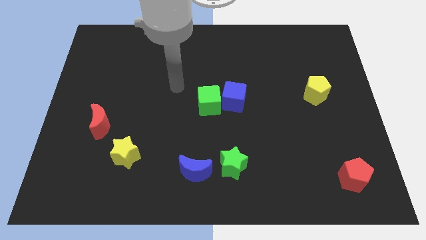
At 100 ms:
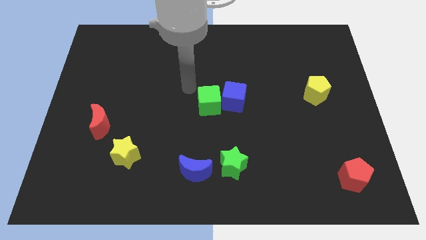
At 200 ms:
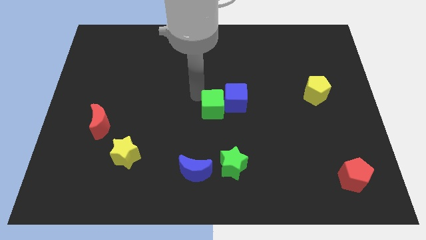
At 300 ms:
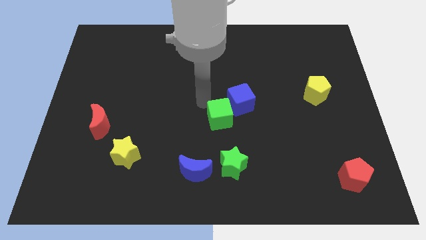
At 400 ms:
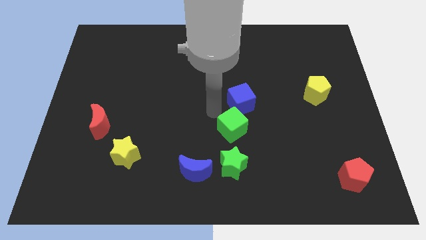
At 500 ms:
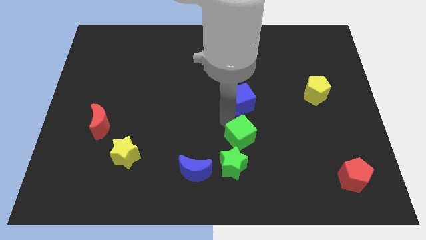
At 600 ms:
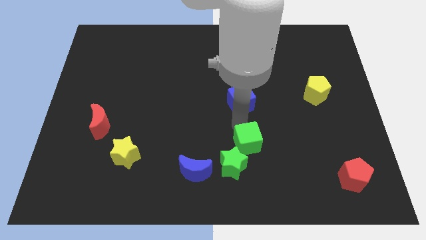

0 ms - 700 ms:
separate the blue cube from the green cube

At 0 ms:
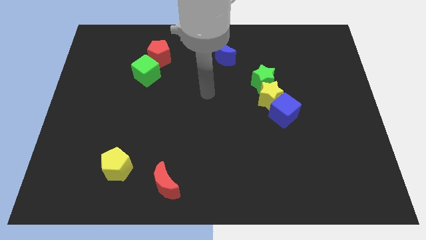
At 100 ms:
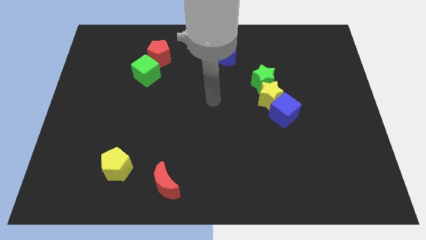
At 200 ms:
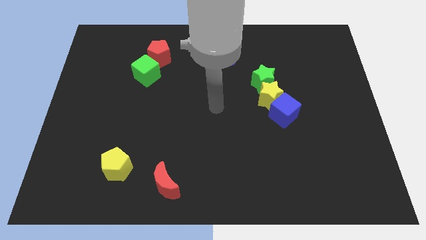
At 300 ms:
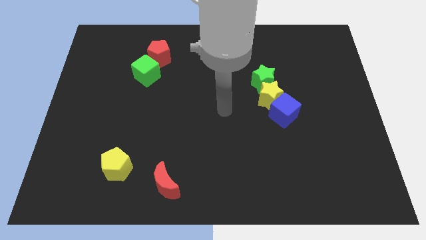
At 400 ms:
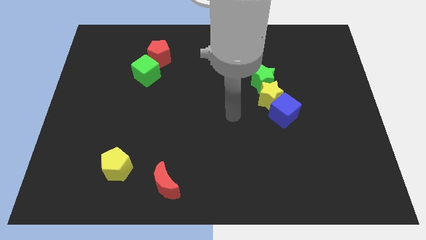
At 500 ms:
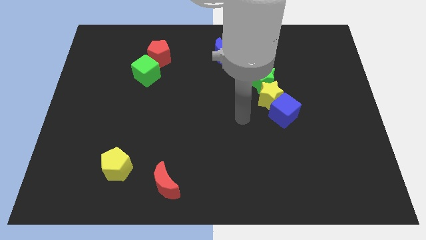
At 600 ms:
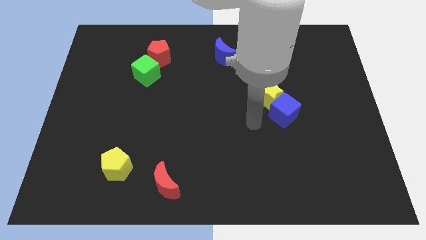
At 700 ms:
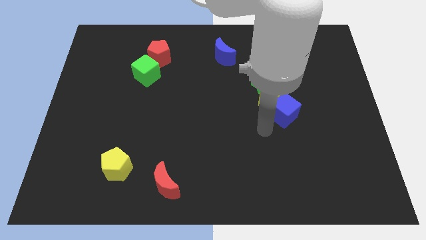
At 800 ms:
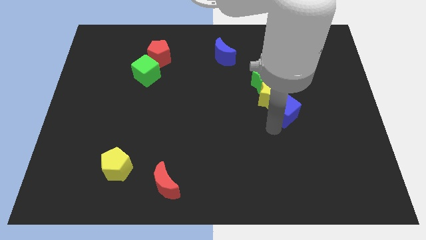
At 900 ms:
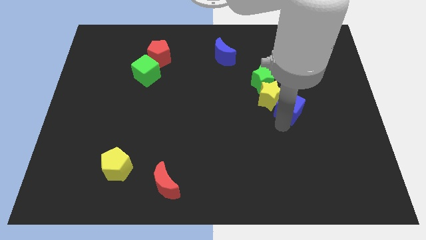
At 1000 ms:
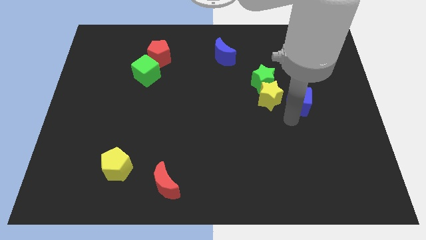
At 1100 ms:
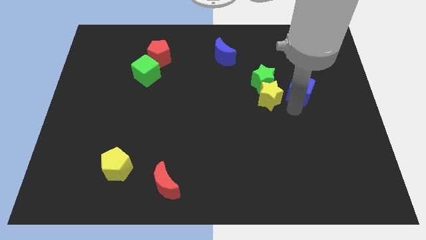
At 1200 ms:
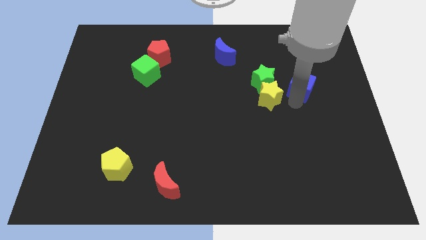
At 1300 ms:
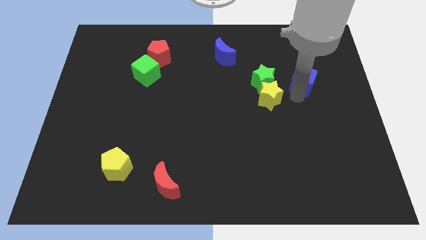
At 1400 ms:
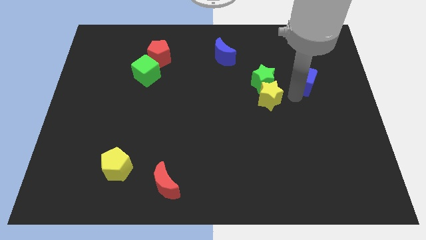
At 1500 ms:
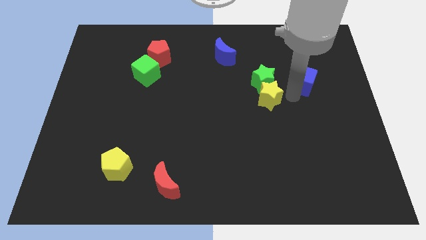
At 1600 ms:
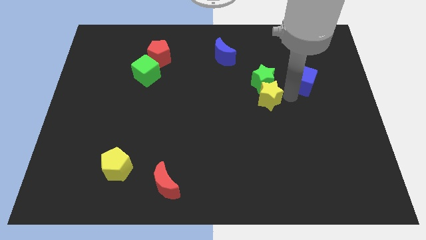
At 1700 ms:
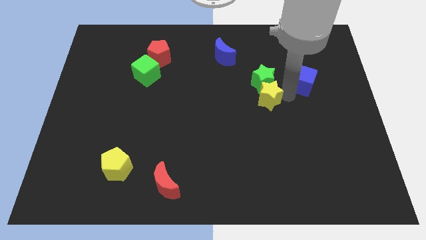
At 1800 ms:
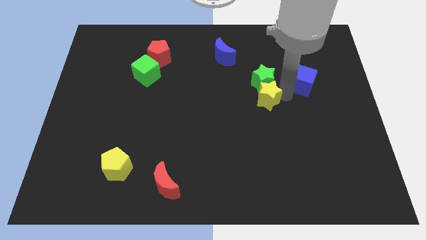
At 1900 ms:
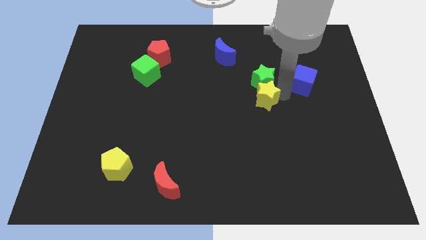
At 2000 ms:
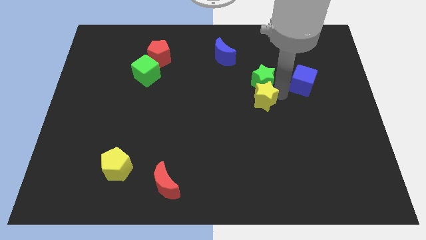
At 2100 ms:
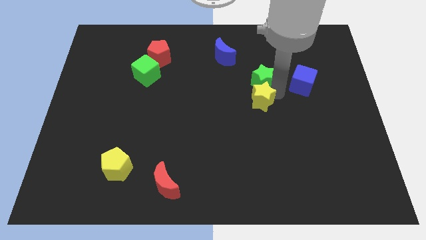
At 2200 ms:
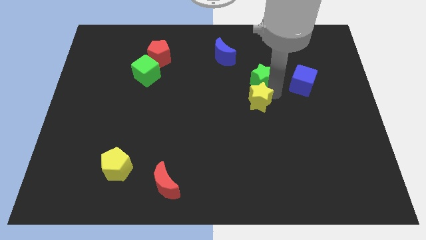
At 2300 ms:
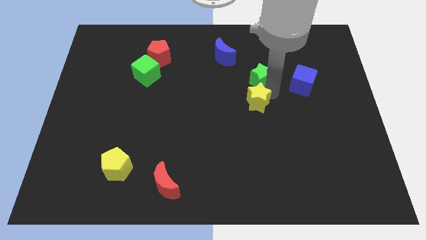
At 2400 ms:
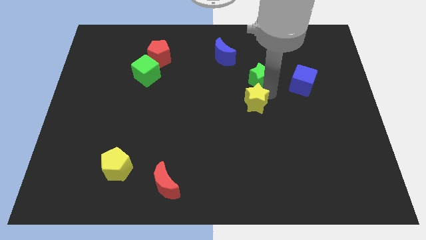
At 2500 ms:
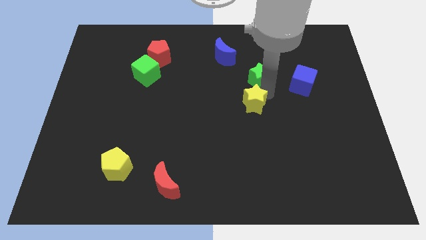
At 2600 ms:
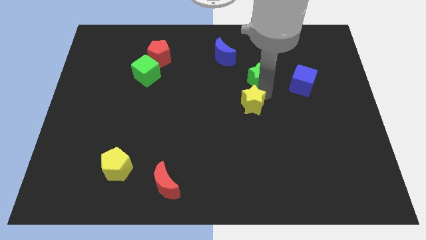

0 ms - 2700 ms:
pull the yellow star apart from the blue cube and green star

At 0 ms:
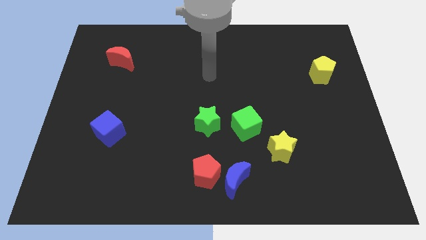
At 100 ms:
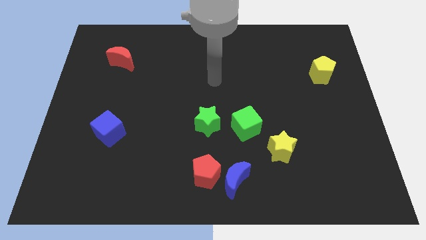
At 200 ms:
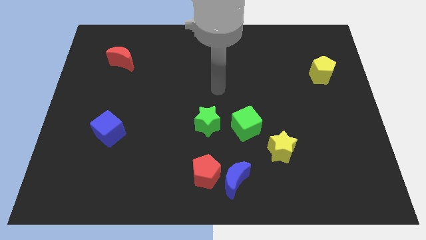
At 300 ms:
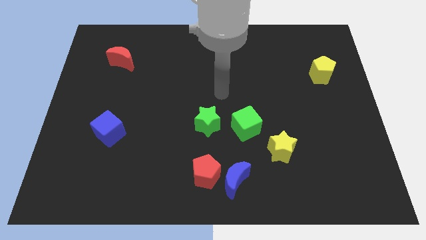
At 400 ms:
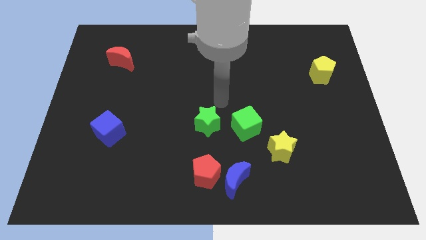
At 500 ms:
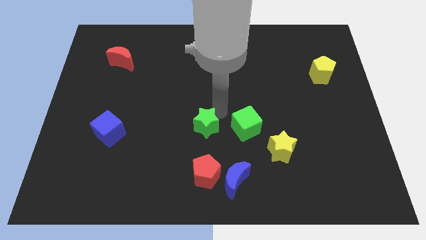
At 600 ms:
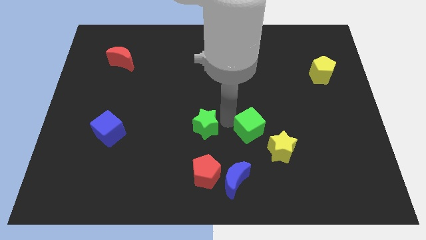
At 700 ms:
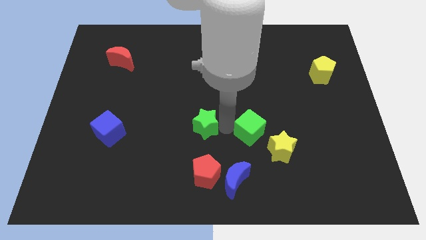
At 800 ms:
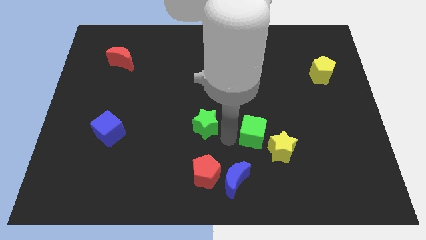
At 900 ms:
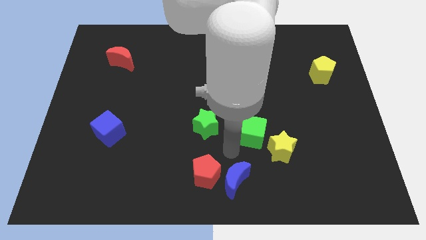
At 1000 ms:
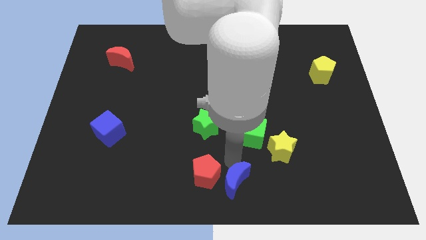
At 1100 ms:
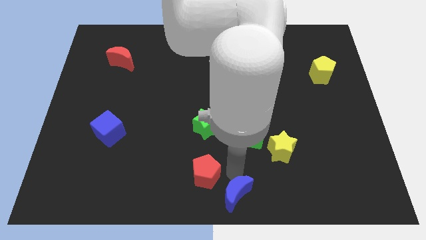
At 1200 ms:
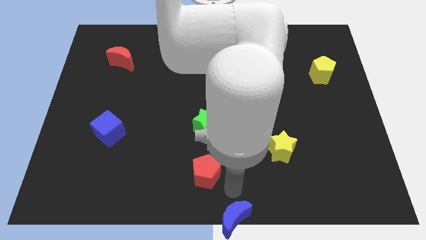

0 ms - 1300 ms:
pull the red pentagon apart from the blue moon

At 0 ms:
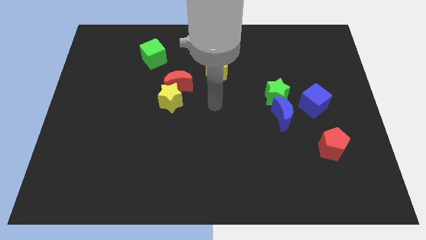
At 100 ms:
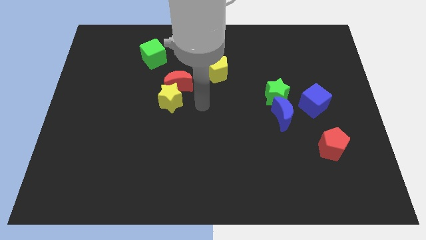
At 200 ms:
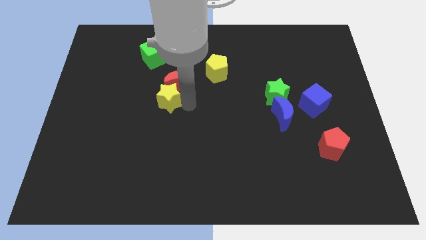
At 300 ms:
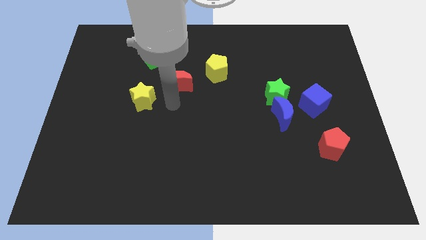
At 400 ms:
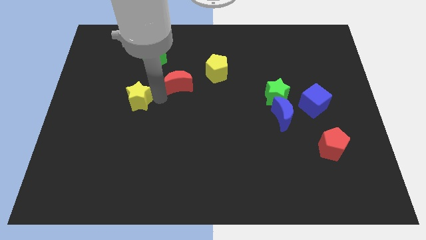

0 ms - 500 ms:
separate the red moon from the yellow star

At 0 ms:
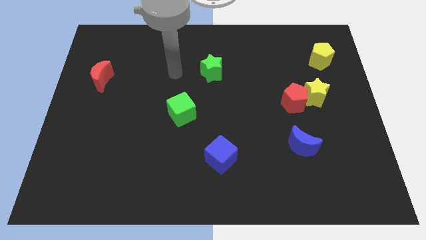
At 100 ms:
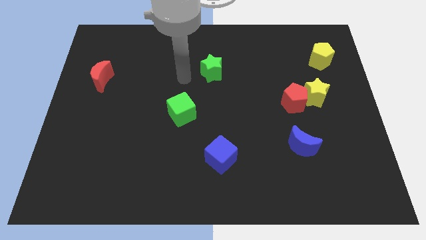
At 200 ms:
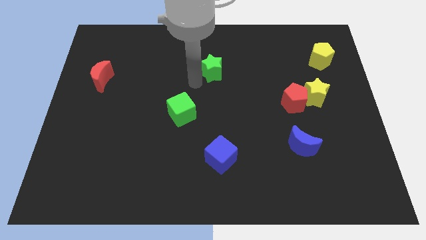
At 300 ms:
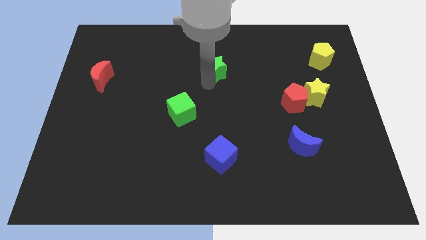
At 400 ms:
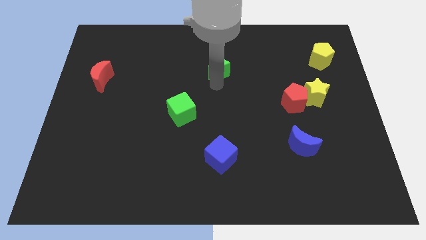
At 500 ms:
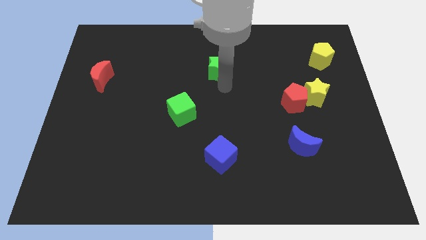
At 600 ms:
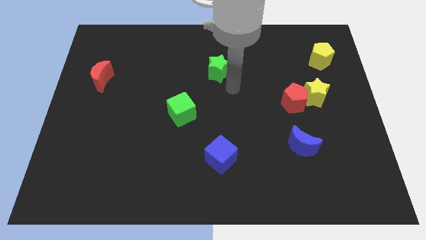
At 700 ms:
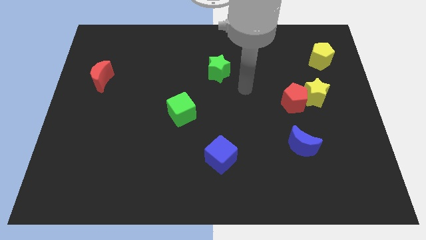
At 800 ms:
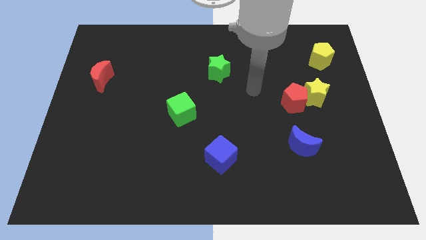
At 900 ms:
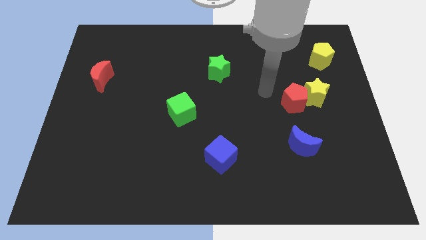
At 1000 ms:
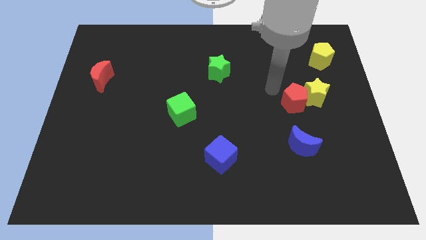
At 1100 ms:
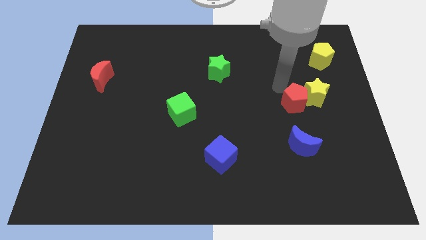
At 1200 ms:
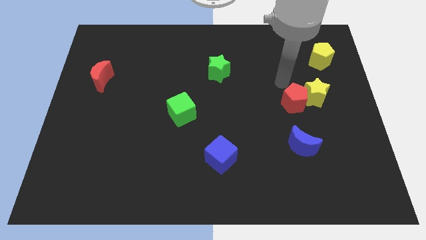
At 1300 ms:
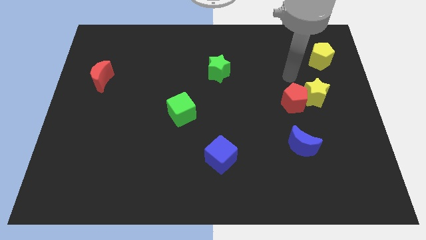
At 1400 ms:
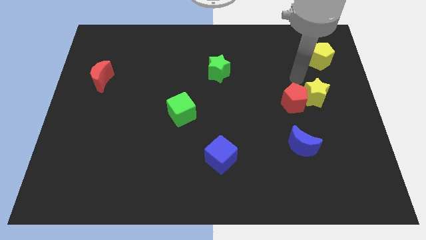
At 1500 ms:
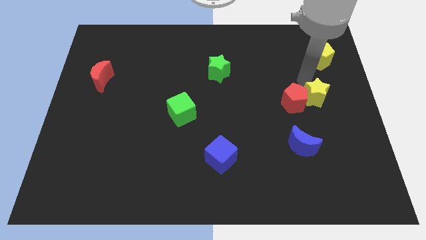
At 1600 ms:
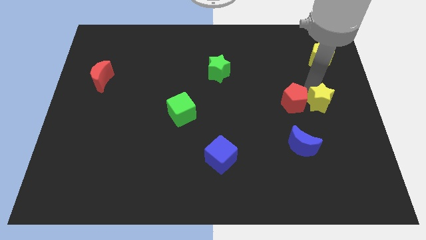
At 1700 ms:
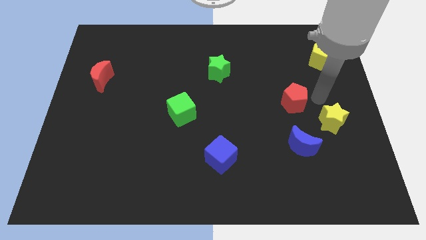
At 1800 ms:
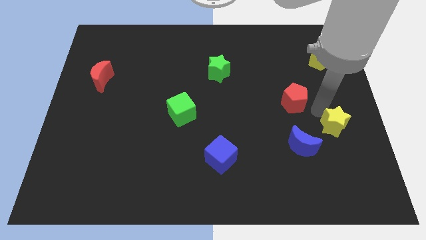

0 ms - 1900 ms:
pull the red pentagon apart from the yellow star

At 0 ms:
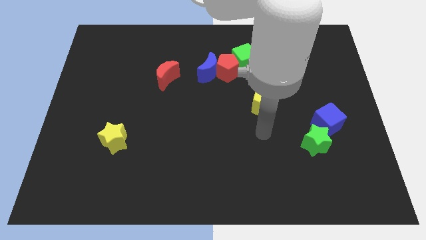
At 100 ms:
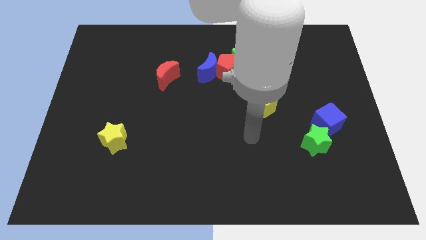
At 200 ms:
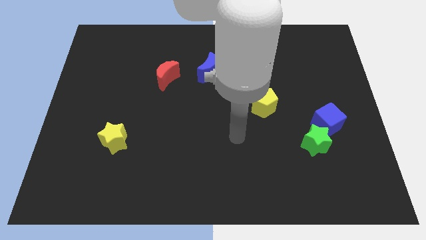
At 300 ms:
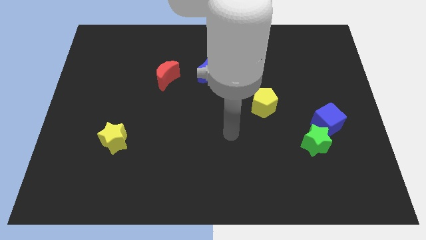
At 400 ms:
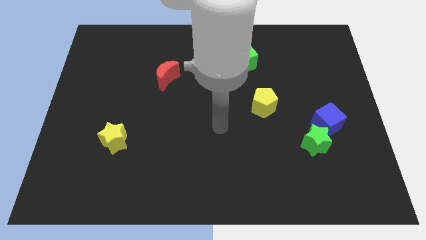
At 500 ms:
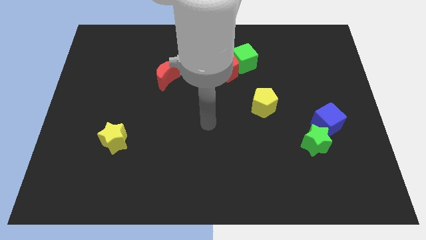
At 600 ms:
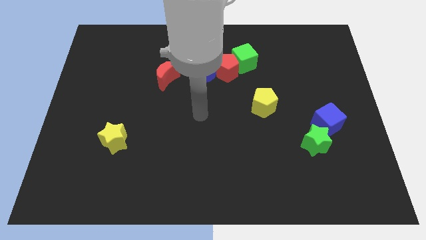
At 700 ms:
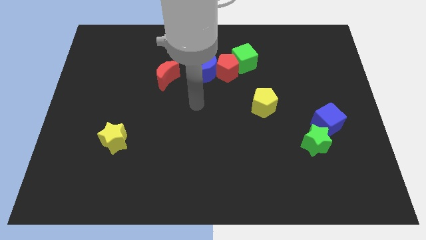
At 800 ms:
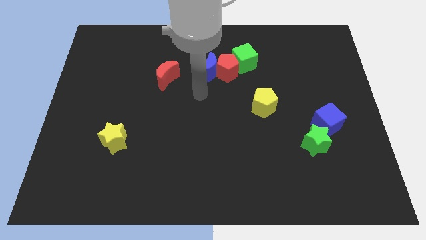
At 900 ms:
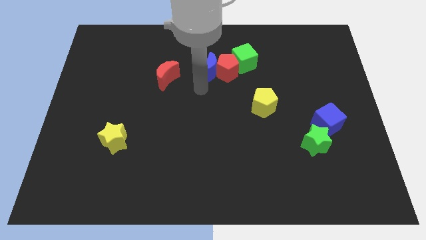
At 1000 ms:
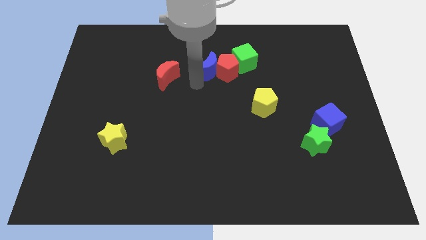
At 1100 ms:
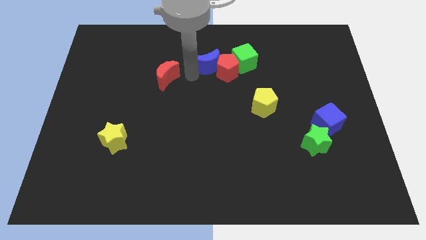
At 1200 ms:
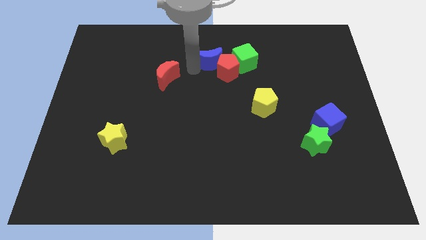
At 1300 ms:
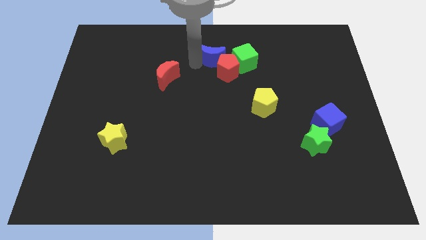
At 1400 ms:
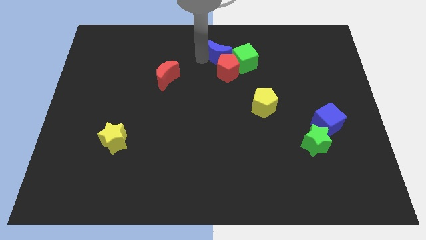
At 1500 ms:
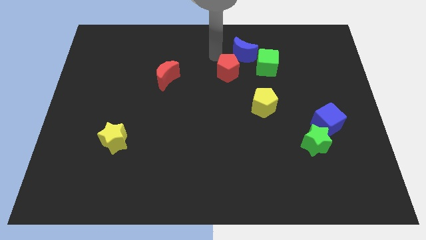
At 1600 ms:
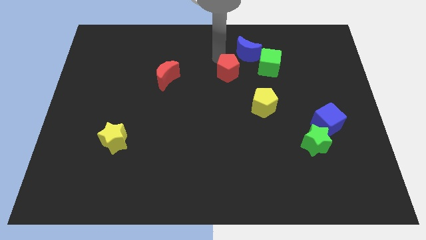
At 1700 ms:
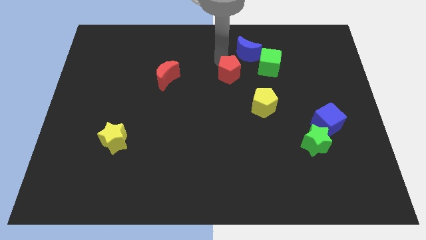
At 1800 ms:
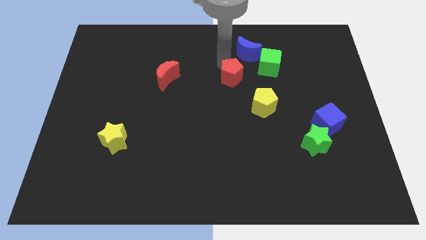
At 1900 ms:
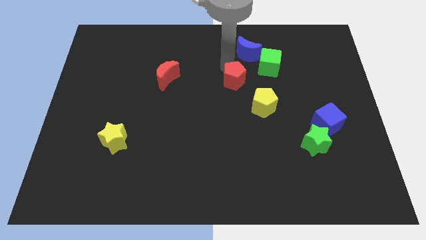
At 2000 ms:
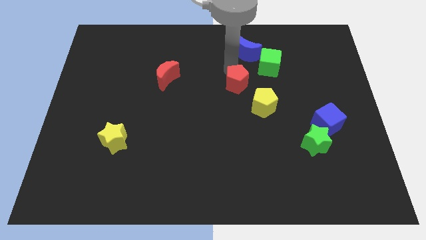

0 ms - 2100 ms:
move the red pentagon away from the blue moon and green cube

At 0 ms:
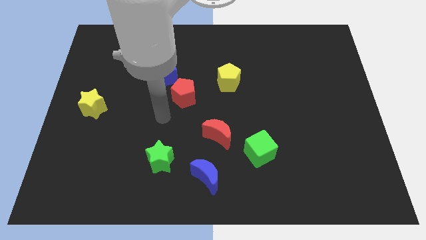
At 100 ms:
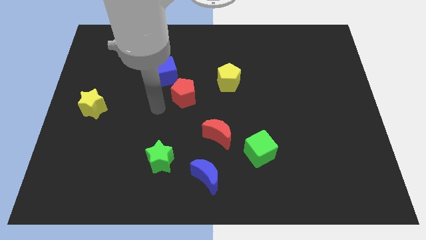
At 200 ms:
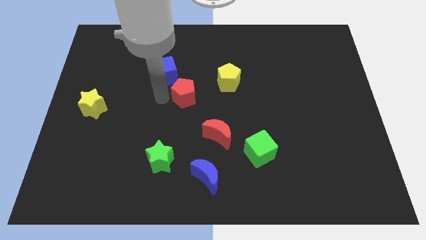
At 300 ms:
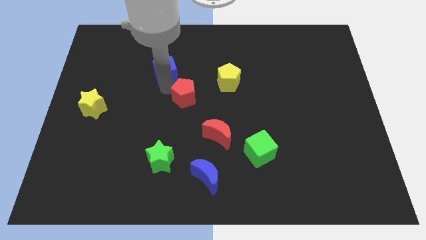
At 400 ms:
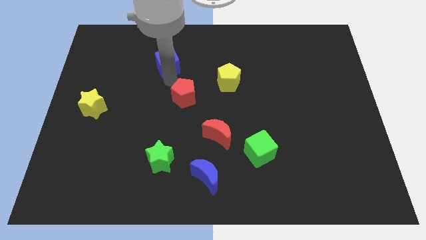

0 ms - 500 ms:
pull the red pentagon apart from the blue cube
